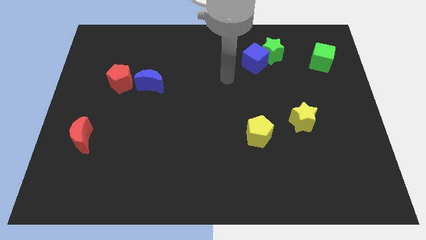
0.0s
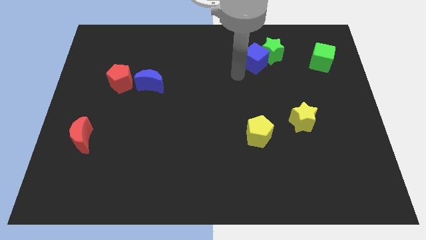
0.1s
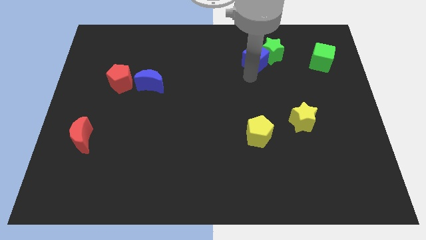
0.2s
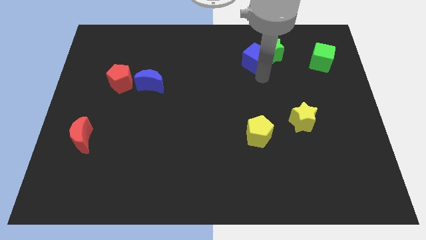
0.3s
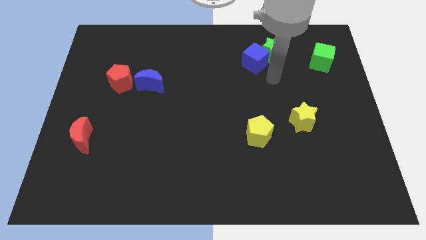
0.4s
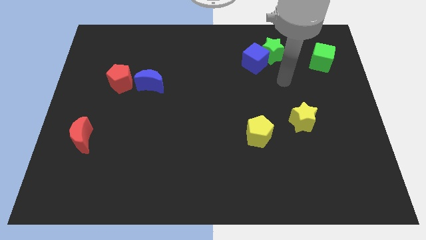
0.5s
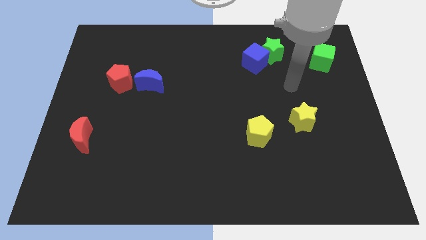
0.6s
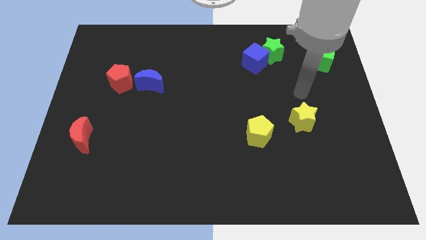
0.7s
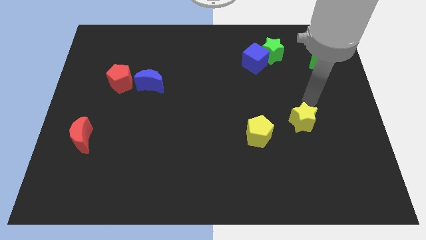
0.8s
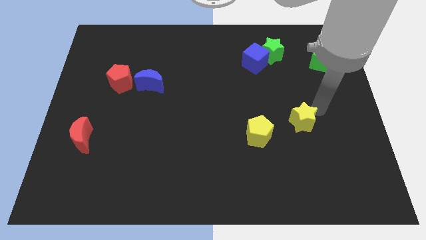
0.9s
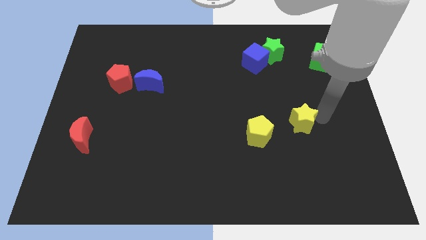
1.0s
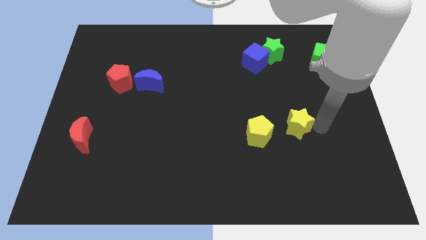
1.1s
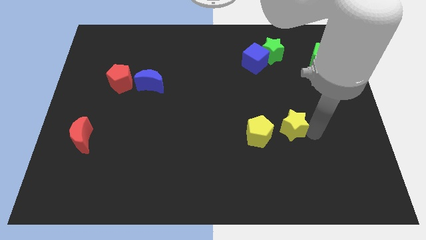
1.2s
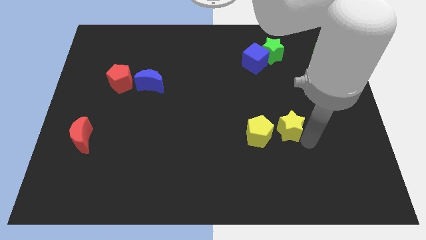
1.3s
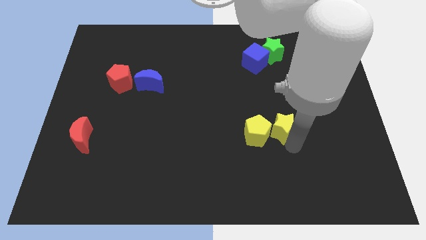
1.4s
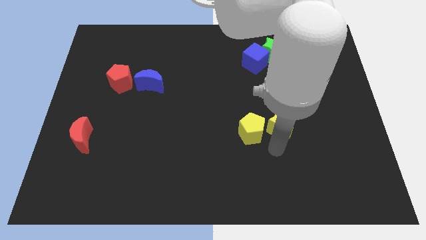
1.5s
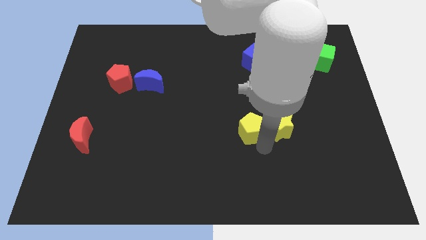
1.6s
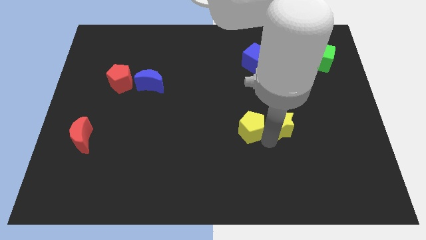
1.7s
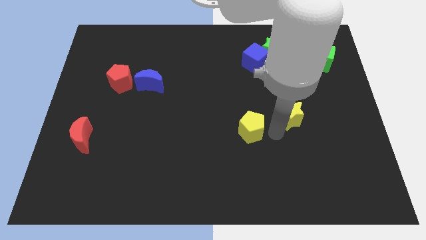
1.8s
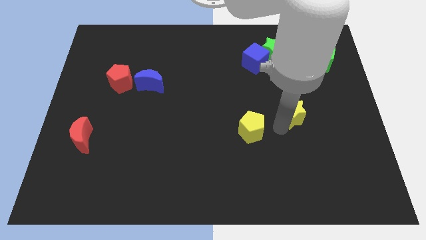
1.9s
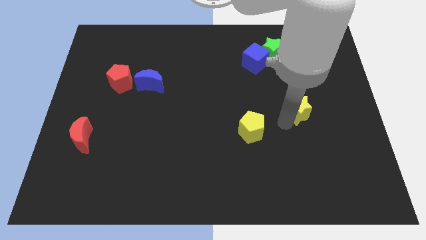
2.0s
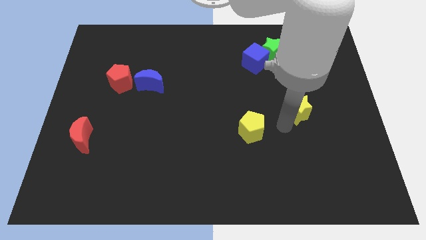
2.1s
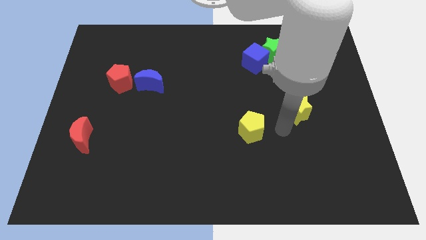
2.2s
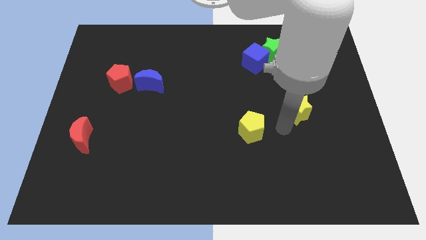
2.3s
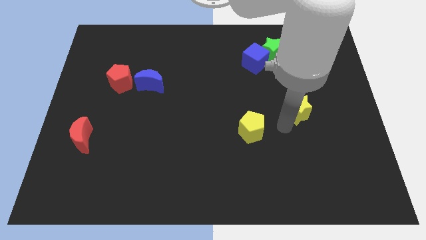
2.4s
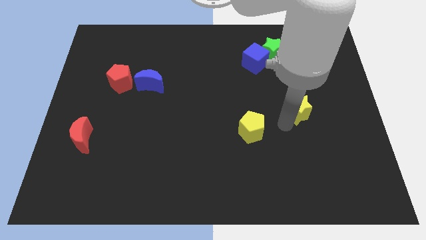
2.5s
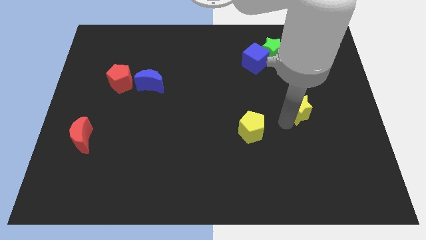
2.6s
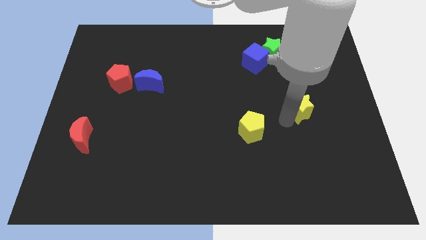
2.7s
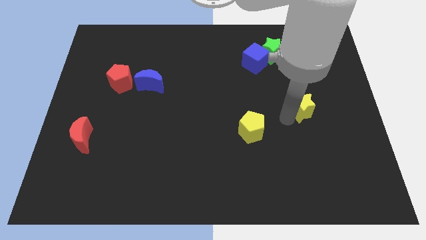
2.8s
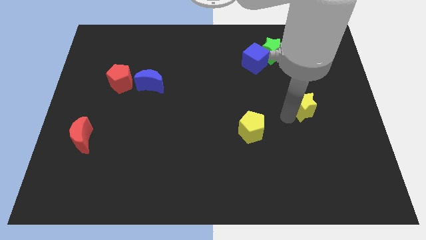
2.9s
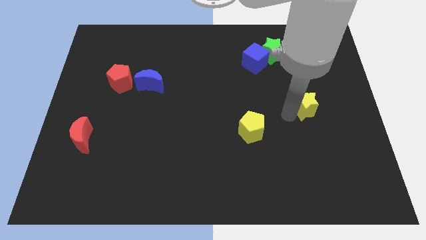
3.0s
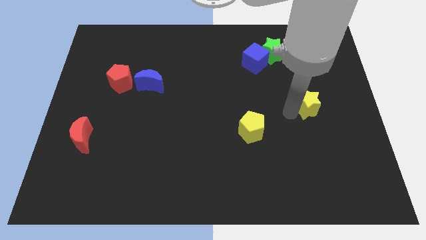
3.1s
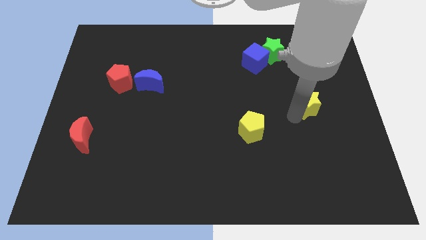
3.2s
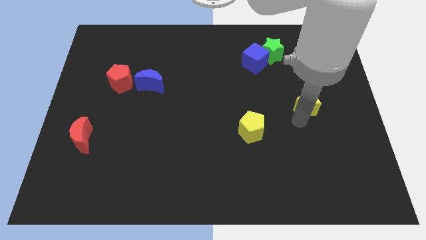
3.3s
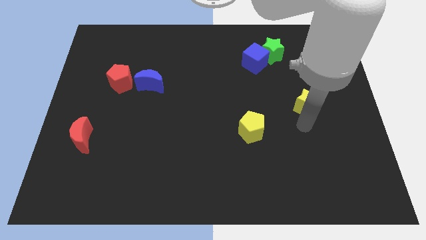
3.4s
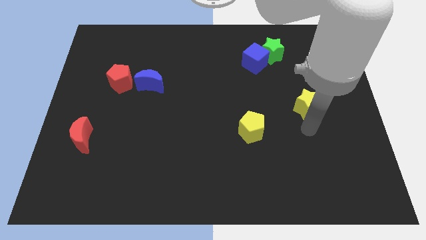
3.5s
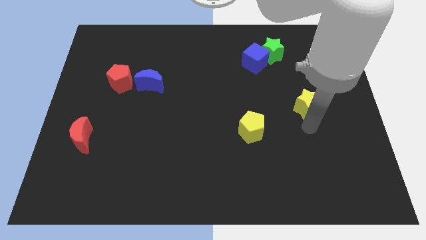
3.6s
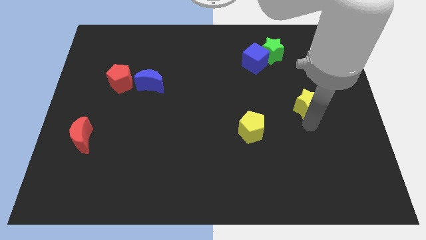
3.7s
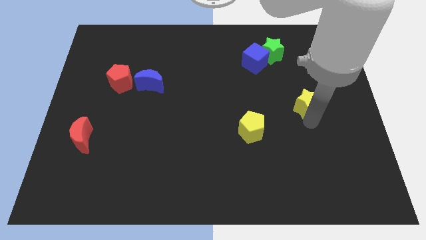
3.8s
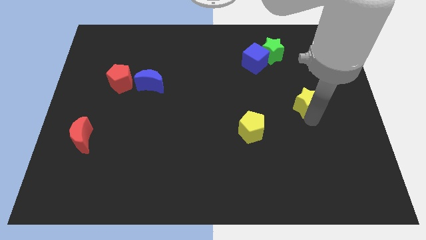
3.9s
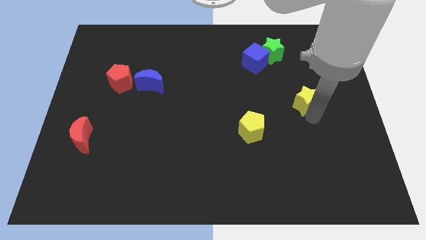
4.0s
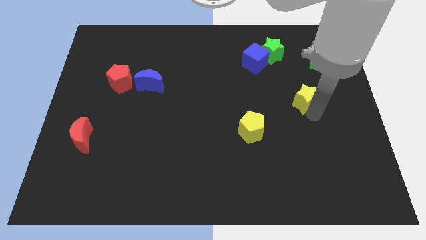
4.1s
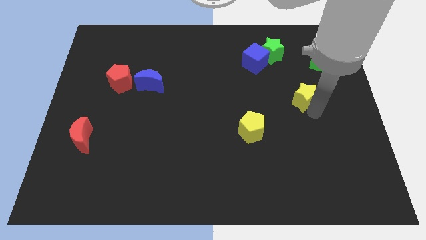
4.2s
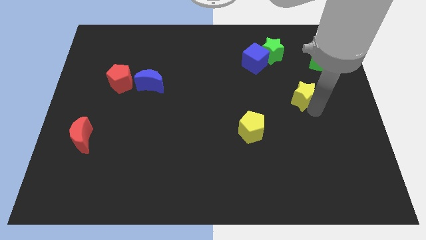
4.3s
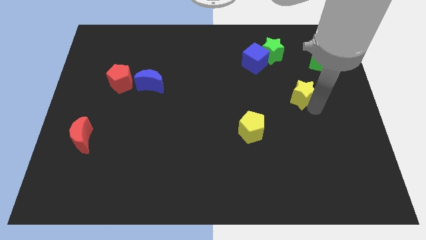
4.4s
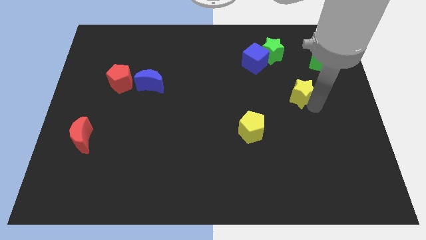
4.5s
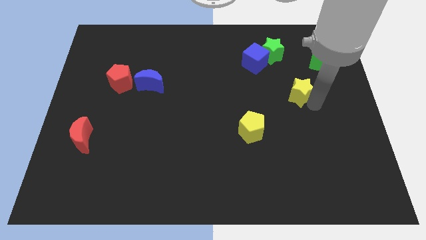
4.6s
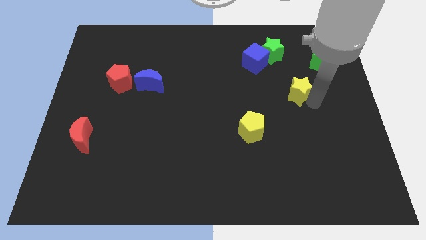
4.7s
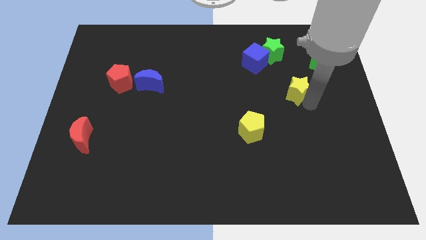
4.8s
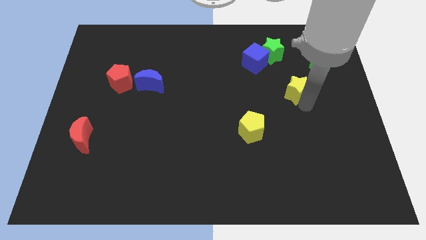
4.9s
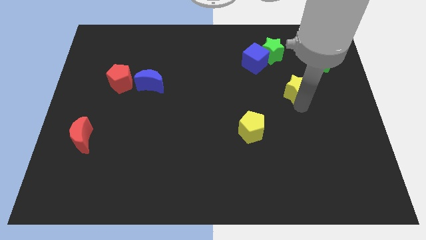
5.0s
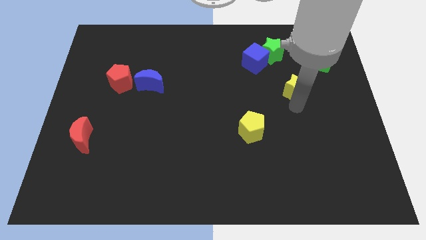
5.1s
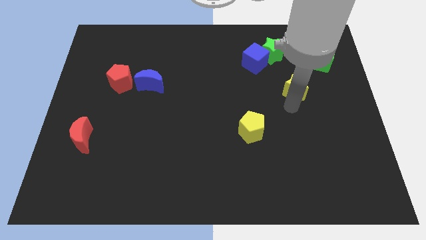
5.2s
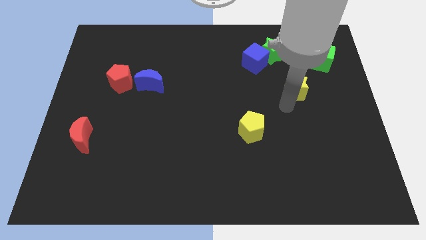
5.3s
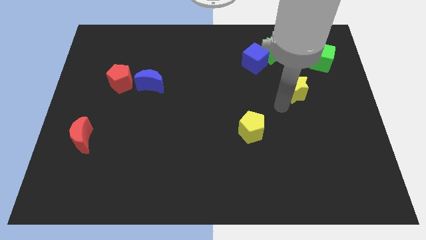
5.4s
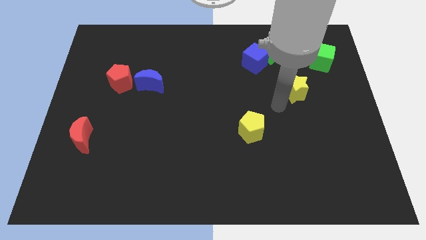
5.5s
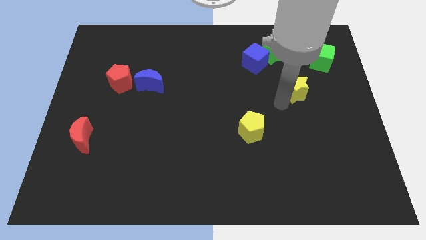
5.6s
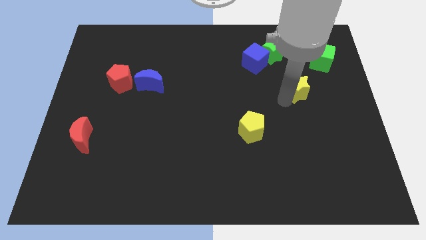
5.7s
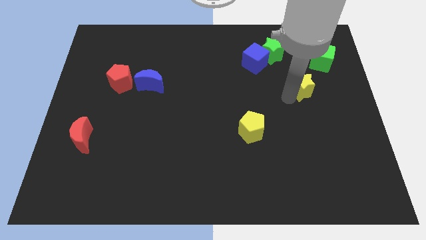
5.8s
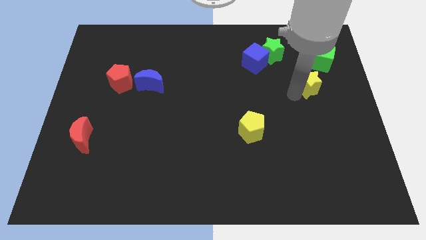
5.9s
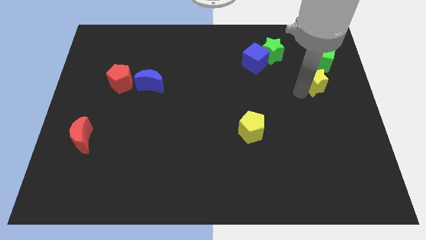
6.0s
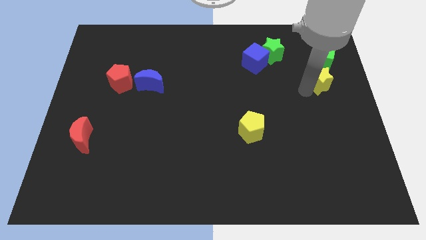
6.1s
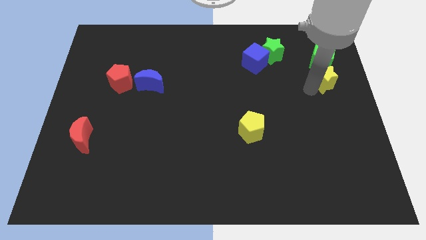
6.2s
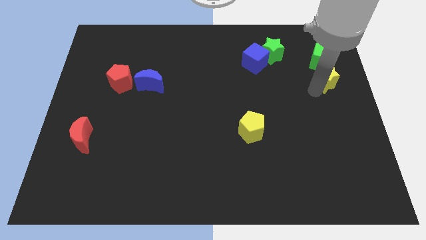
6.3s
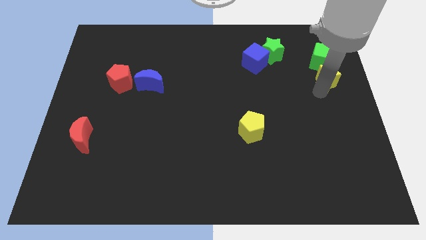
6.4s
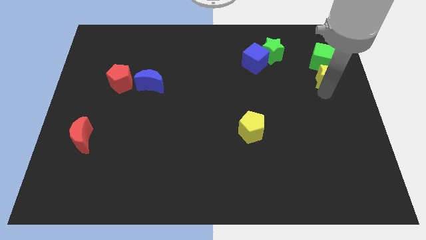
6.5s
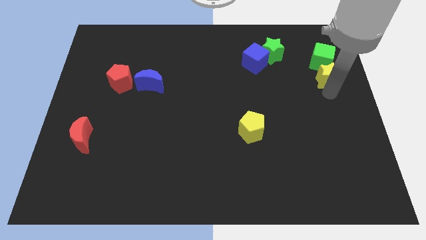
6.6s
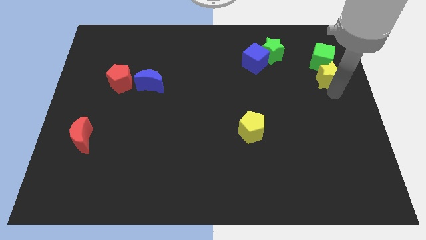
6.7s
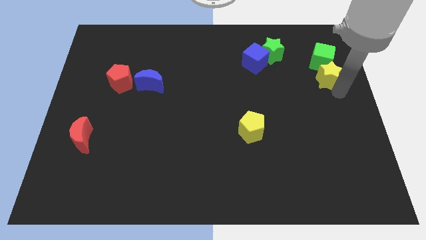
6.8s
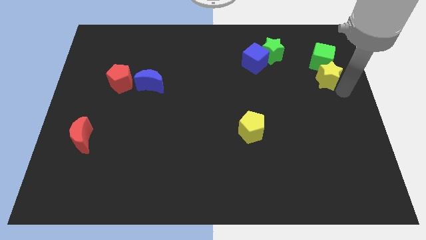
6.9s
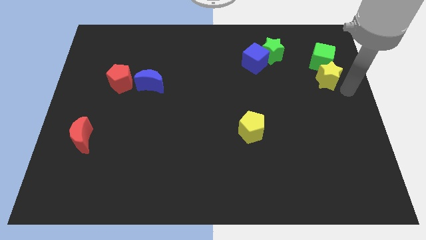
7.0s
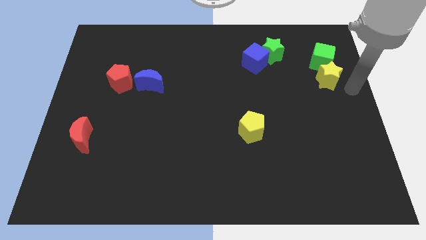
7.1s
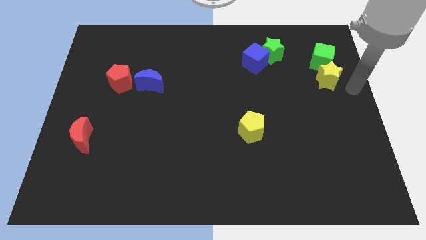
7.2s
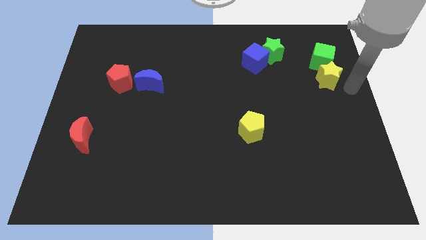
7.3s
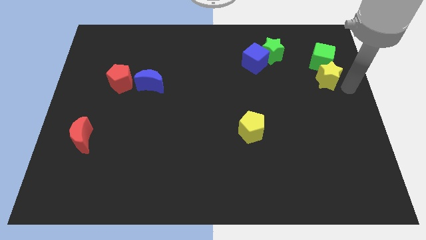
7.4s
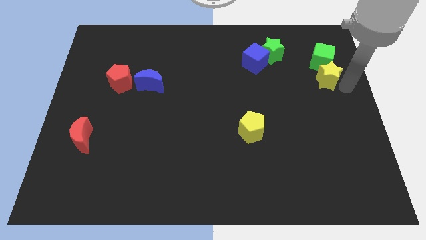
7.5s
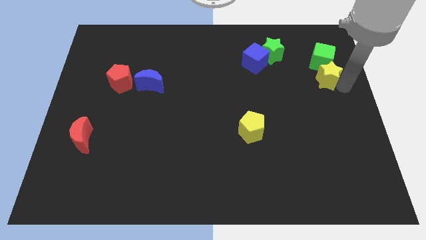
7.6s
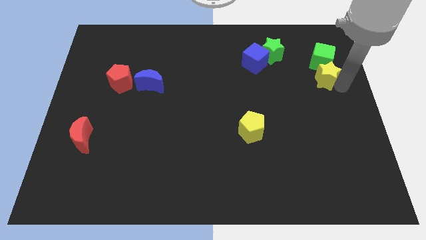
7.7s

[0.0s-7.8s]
put the yellow star to the green cube

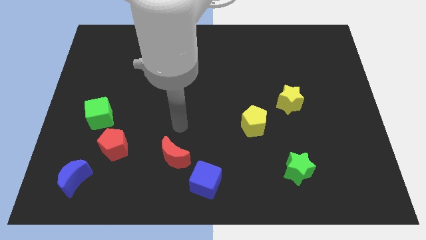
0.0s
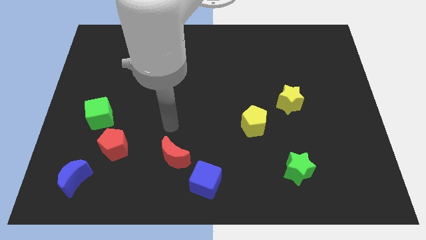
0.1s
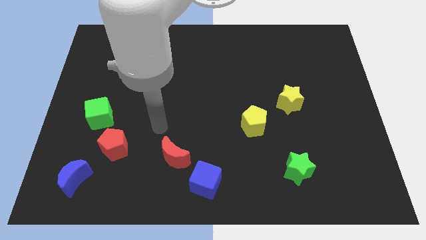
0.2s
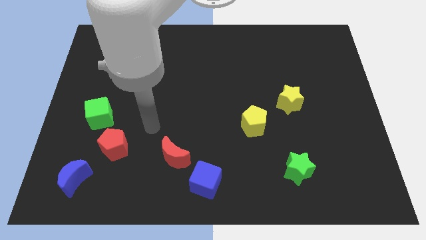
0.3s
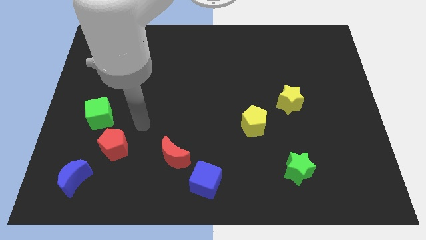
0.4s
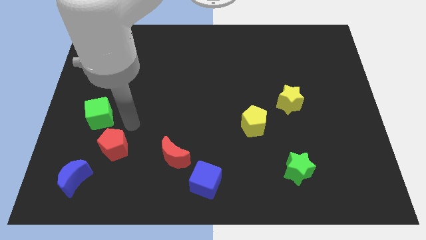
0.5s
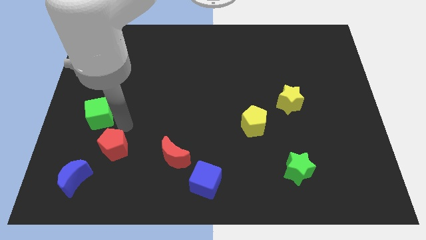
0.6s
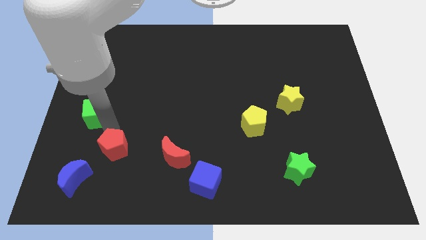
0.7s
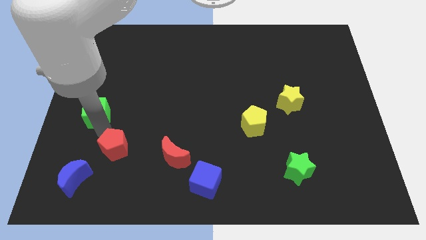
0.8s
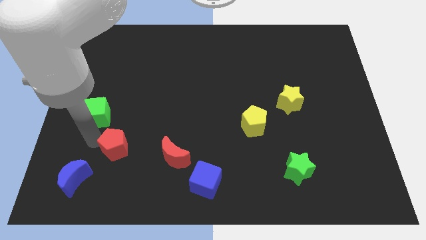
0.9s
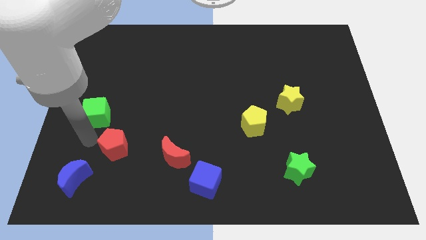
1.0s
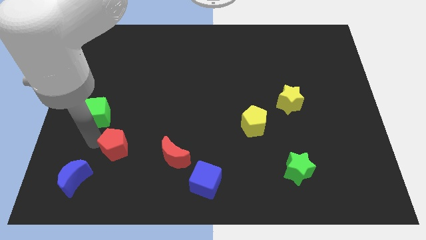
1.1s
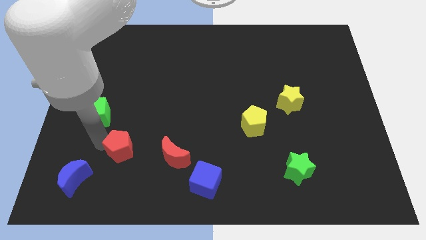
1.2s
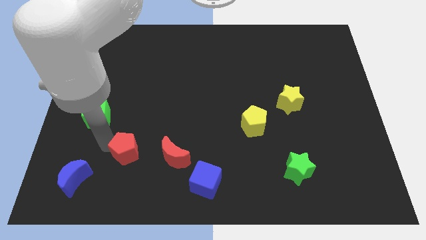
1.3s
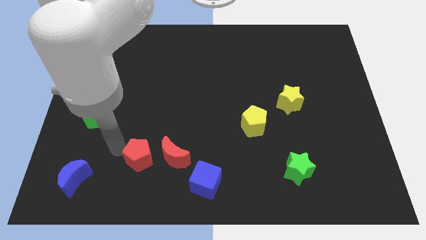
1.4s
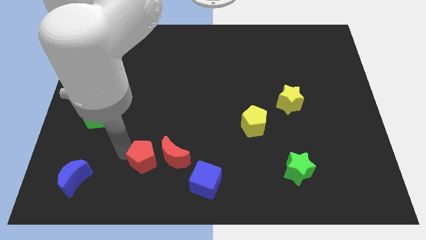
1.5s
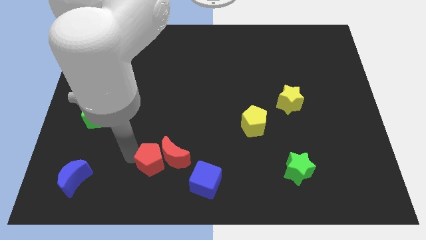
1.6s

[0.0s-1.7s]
push the red pentagon next to the red moon
